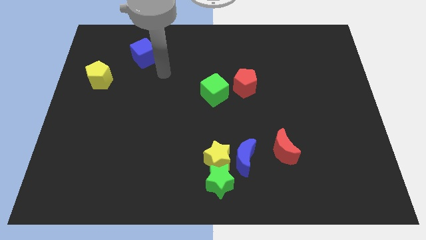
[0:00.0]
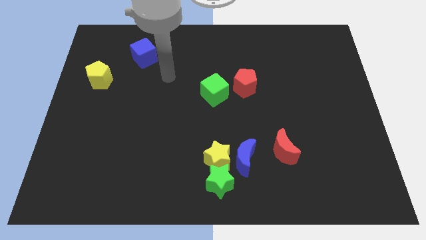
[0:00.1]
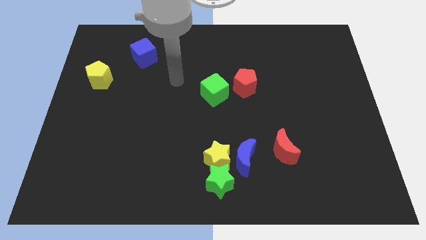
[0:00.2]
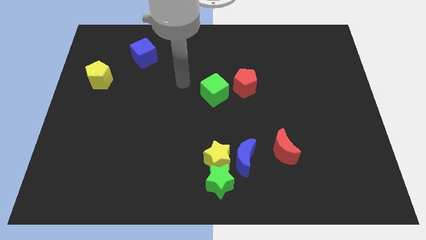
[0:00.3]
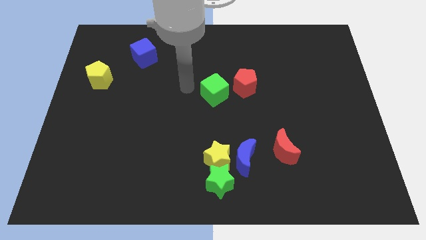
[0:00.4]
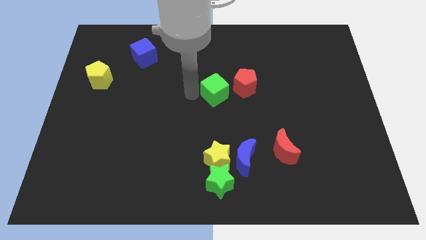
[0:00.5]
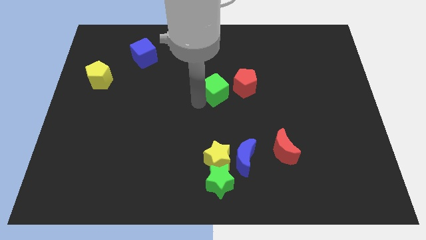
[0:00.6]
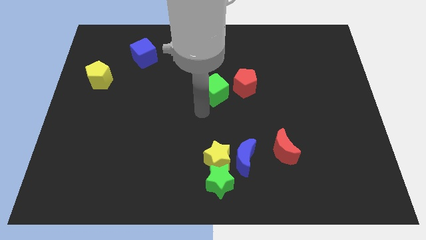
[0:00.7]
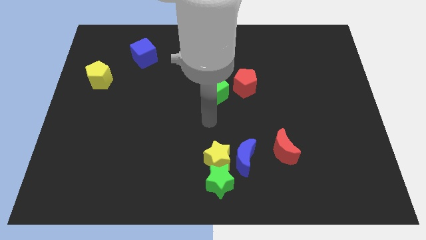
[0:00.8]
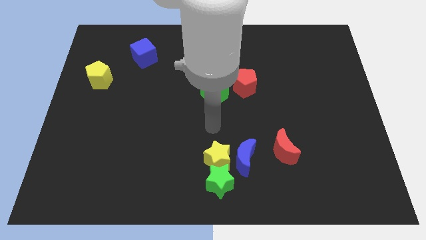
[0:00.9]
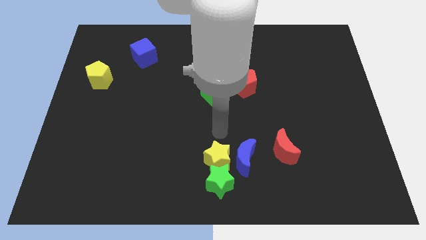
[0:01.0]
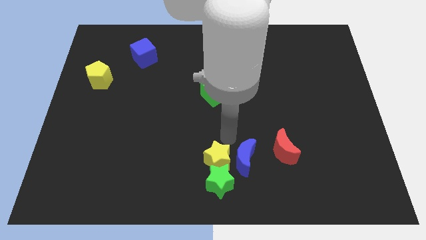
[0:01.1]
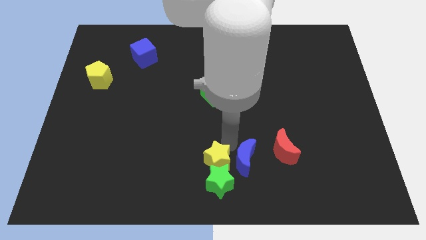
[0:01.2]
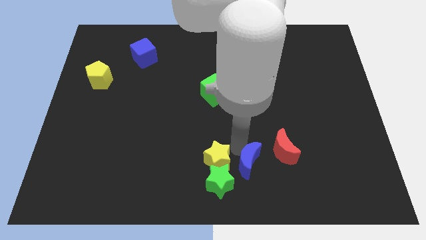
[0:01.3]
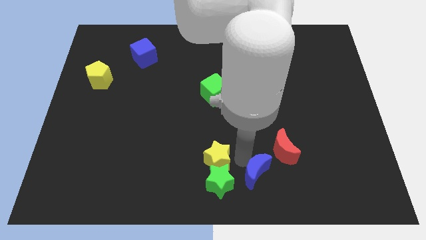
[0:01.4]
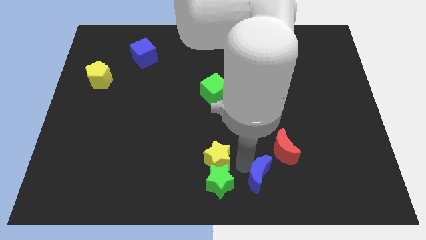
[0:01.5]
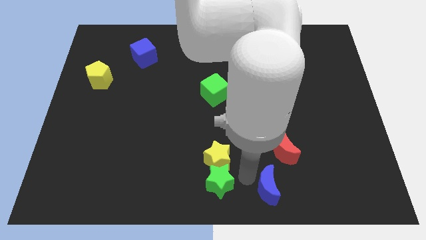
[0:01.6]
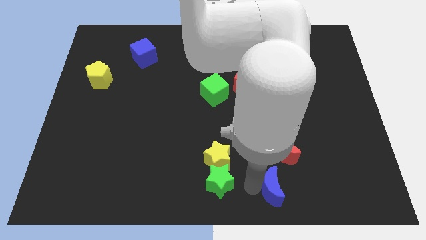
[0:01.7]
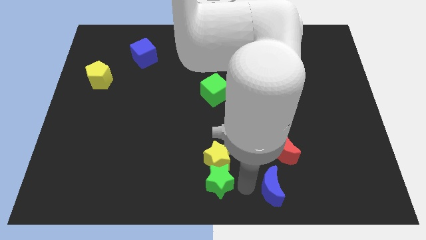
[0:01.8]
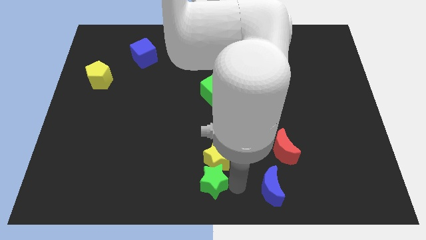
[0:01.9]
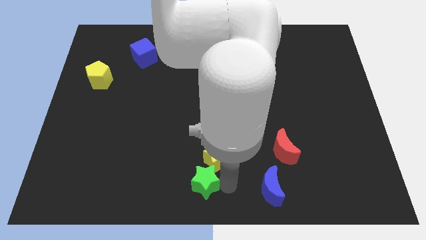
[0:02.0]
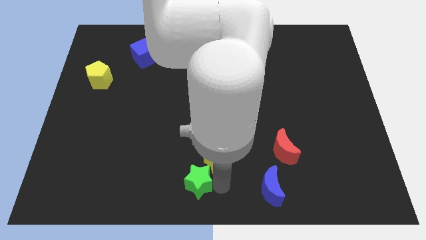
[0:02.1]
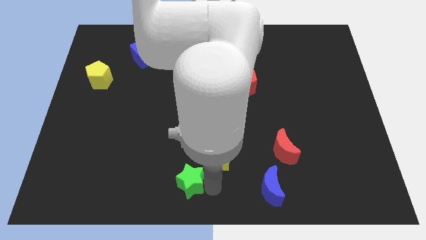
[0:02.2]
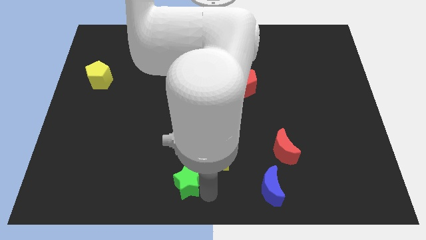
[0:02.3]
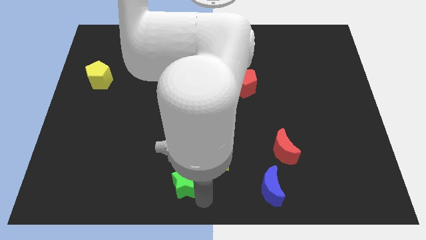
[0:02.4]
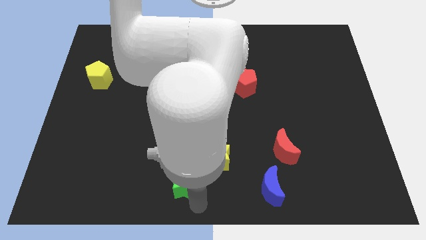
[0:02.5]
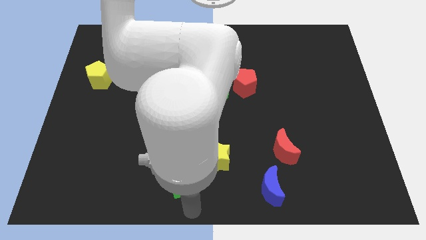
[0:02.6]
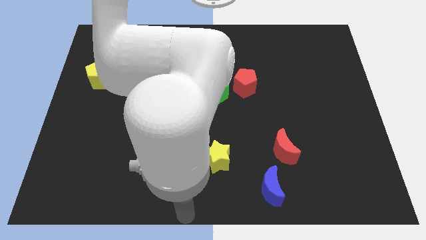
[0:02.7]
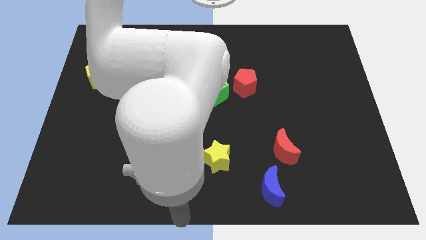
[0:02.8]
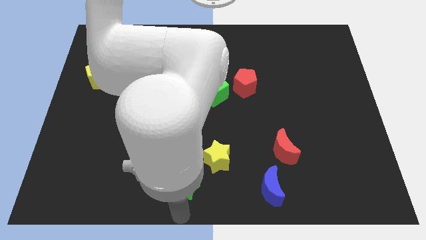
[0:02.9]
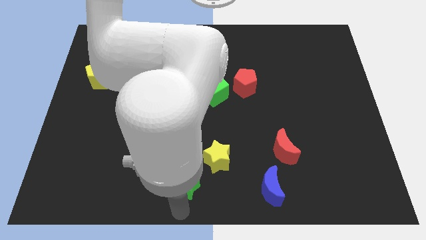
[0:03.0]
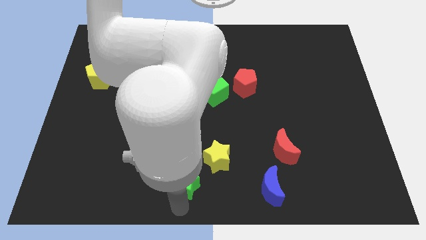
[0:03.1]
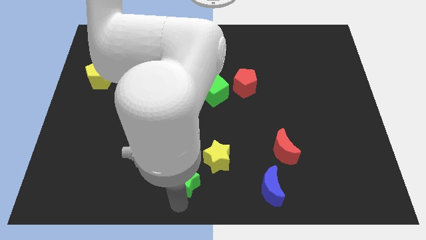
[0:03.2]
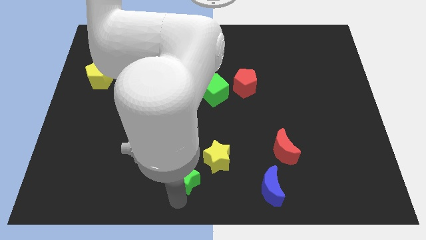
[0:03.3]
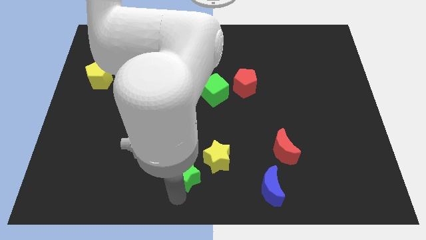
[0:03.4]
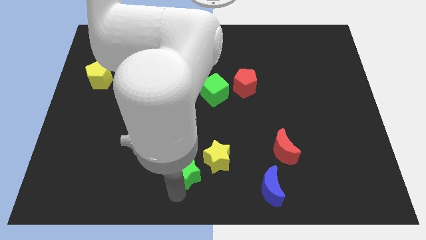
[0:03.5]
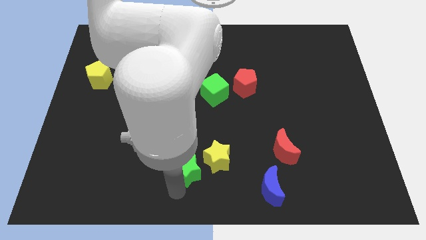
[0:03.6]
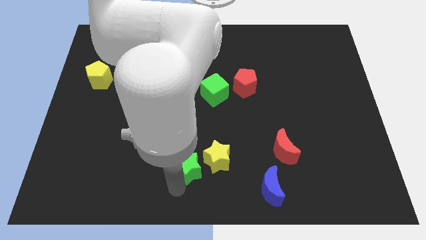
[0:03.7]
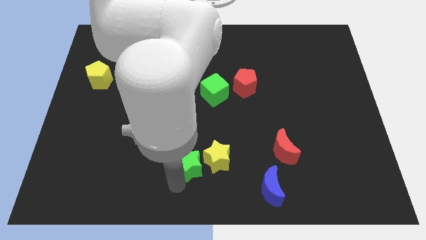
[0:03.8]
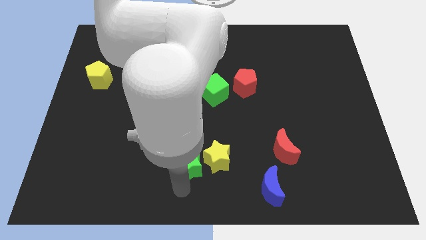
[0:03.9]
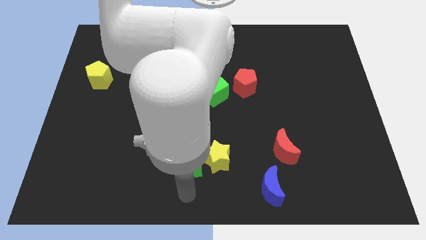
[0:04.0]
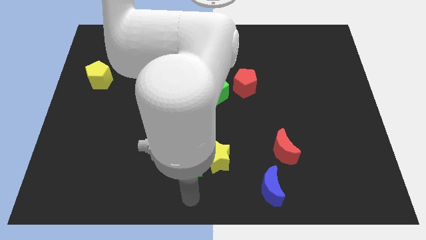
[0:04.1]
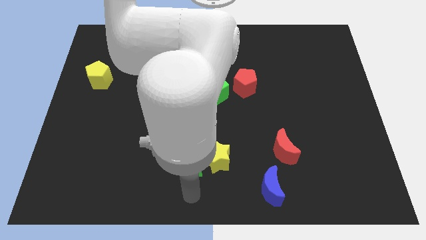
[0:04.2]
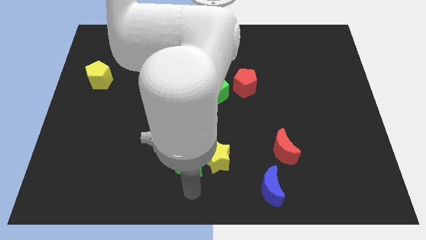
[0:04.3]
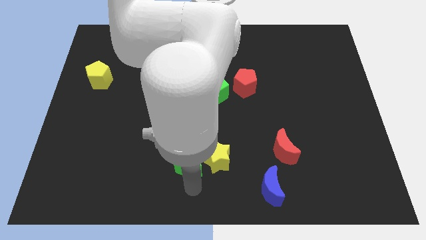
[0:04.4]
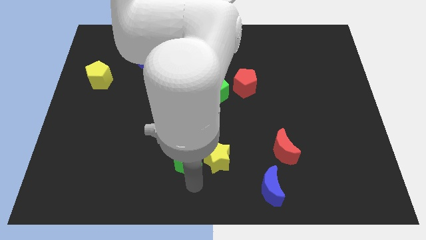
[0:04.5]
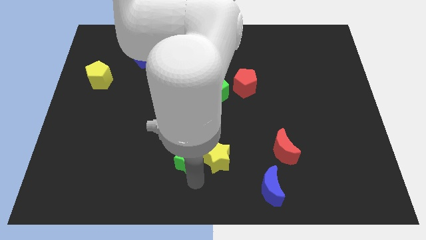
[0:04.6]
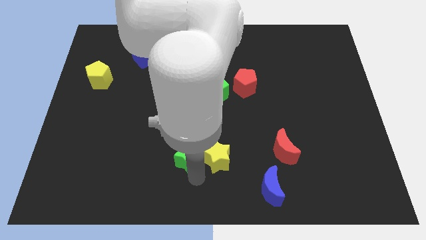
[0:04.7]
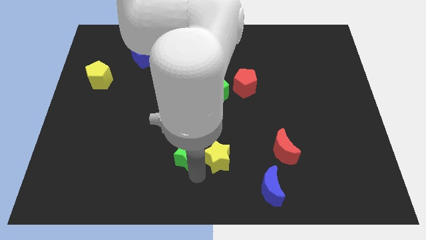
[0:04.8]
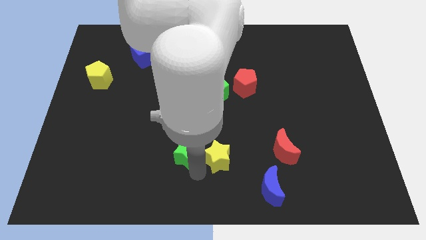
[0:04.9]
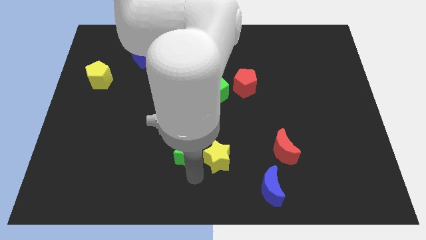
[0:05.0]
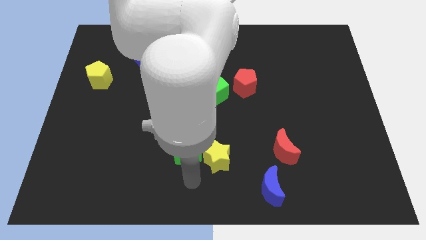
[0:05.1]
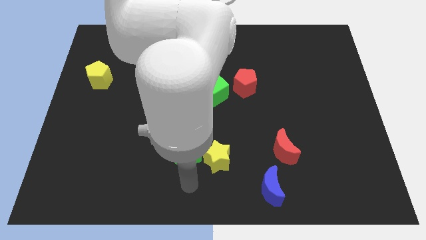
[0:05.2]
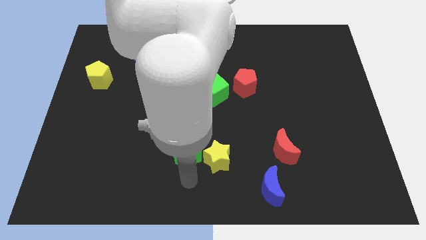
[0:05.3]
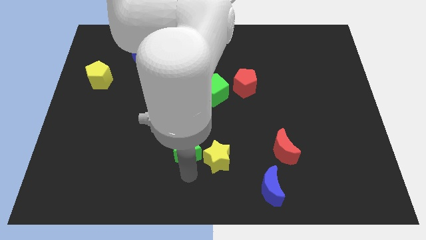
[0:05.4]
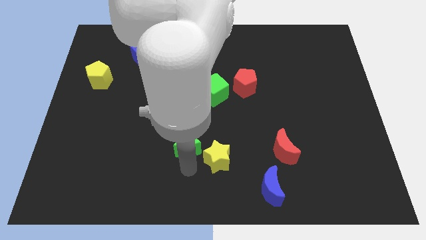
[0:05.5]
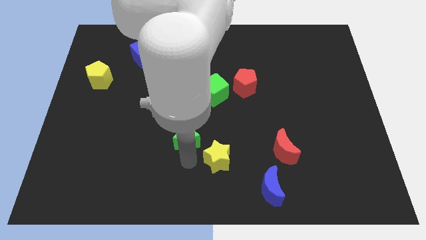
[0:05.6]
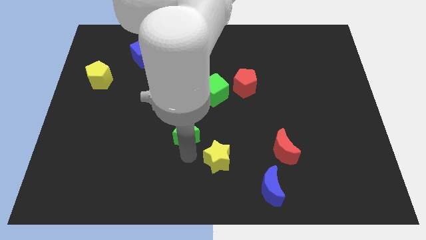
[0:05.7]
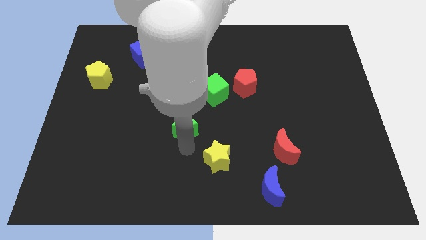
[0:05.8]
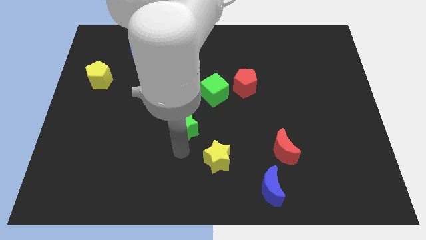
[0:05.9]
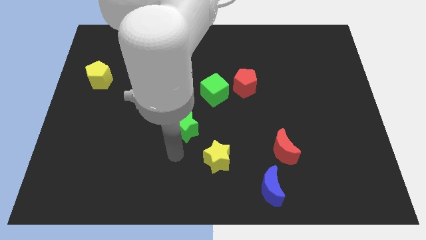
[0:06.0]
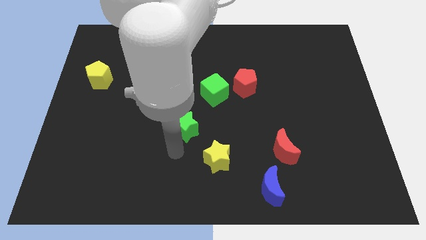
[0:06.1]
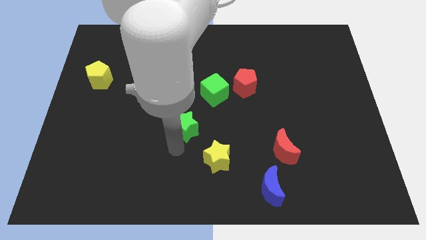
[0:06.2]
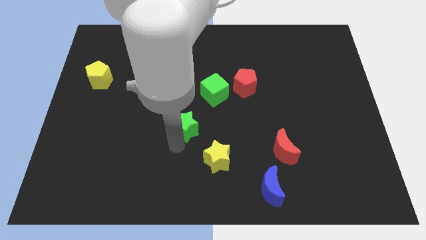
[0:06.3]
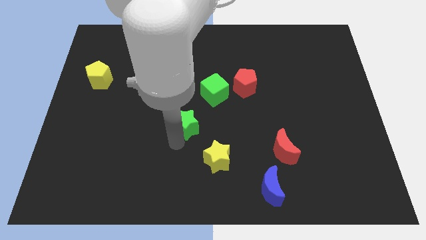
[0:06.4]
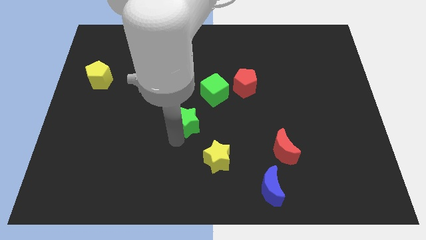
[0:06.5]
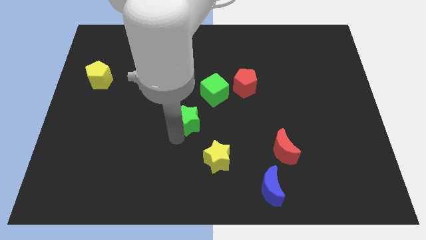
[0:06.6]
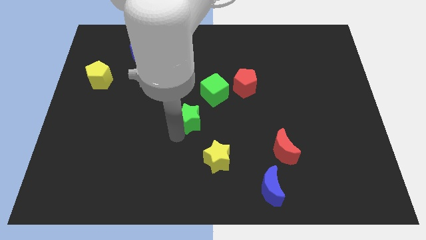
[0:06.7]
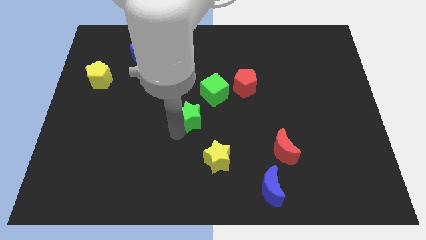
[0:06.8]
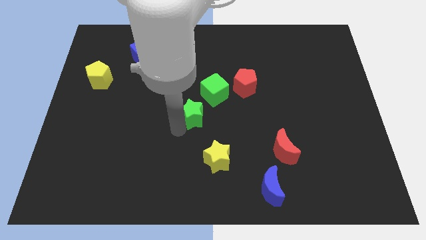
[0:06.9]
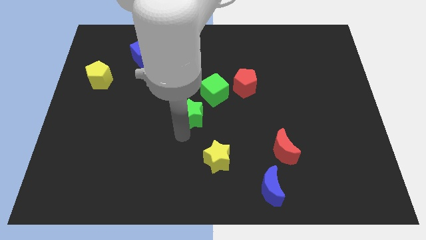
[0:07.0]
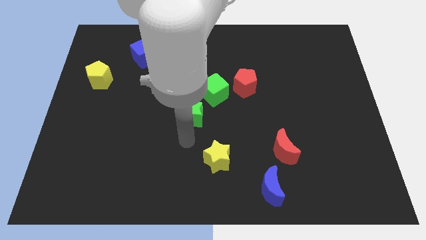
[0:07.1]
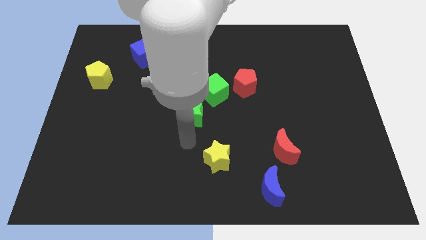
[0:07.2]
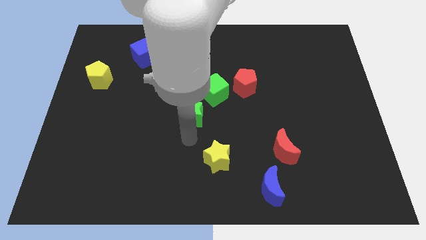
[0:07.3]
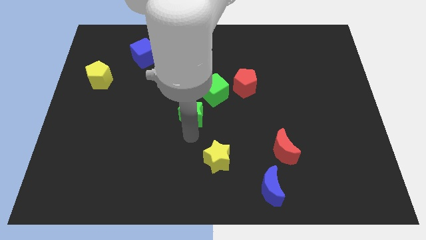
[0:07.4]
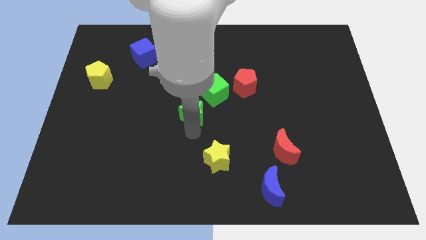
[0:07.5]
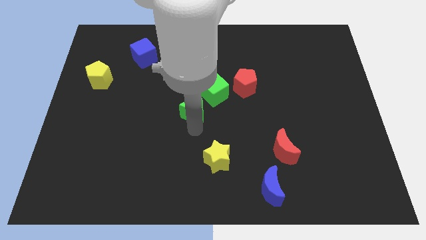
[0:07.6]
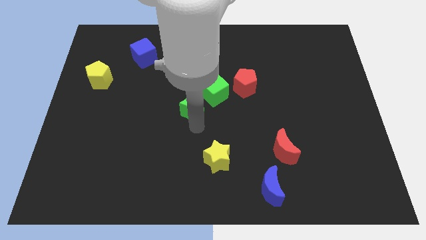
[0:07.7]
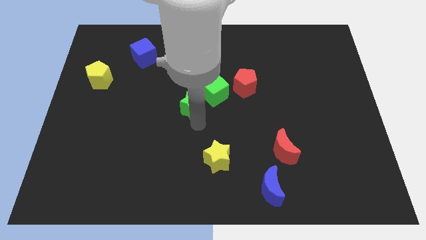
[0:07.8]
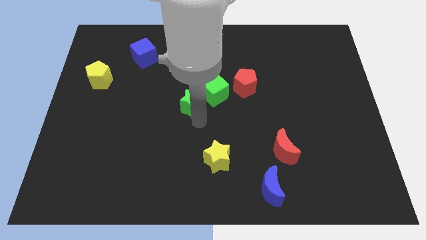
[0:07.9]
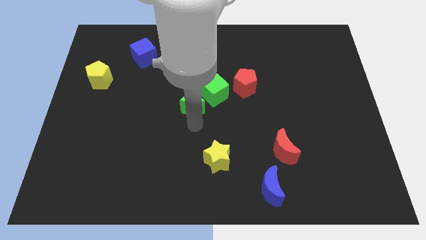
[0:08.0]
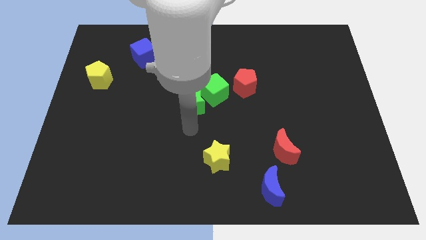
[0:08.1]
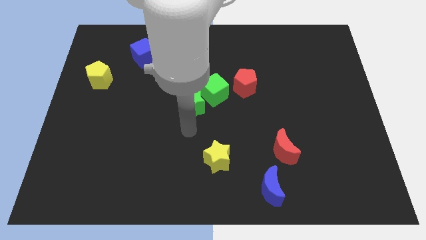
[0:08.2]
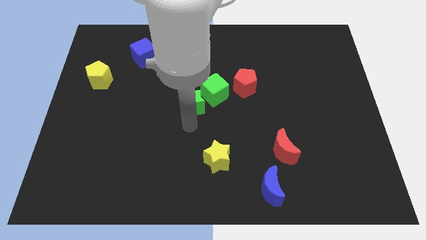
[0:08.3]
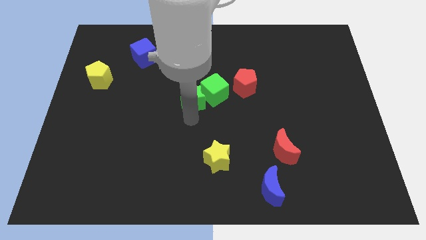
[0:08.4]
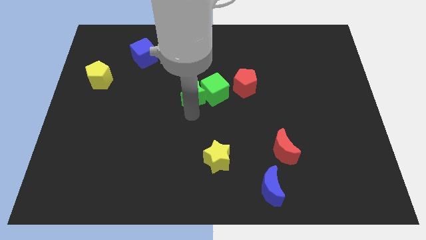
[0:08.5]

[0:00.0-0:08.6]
push the green star upwards
